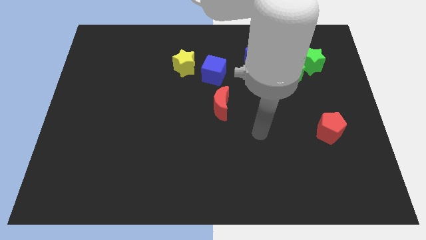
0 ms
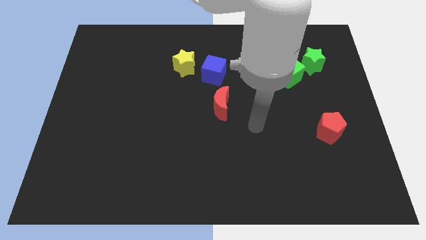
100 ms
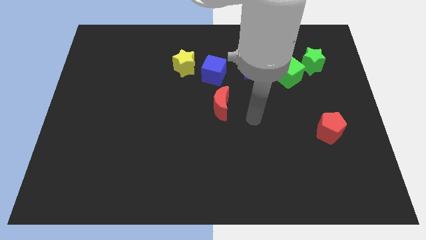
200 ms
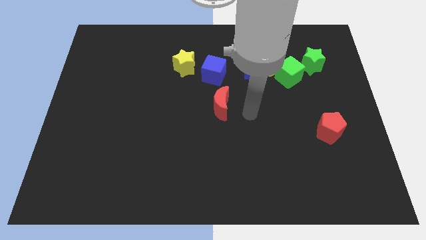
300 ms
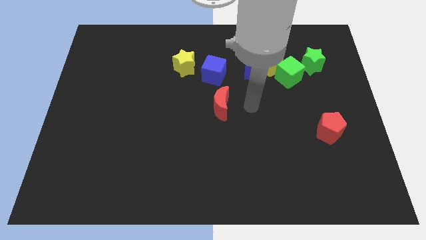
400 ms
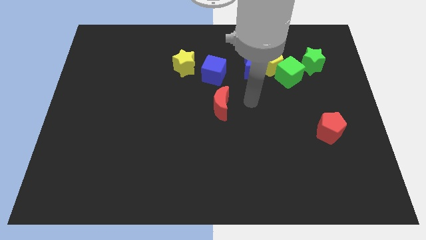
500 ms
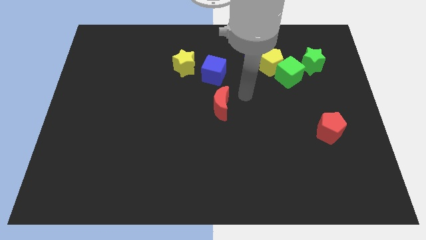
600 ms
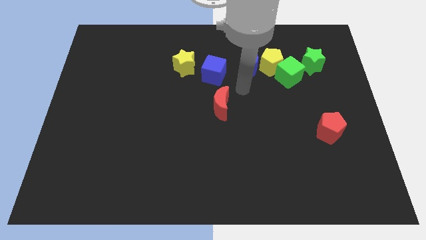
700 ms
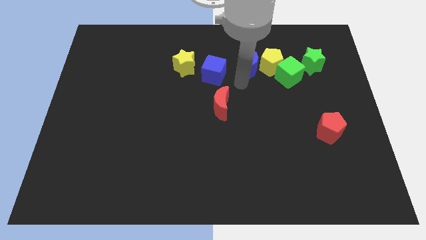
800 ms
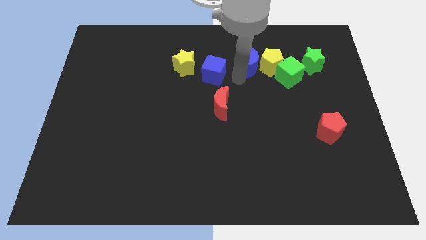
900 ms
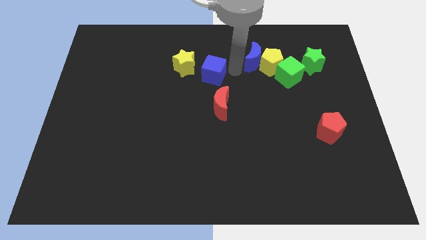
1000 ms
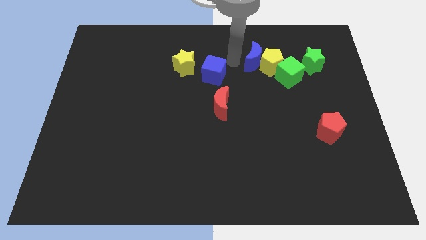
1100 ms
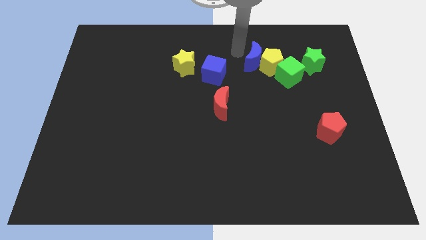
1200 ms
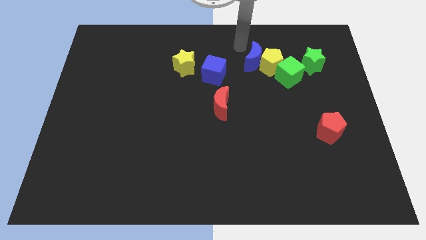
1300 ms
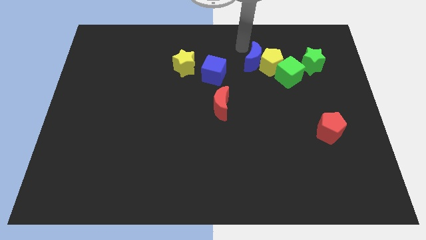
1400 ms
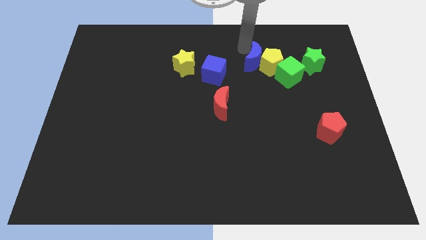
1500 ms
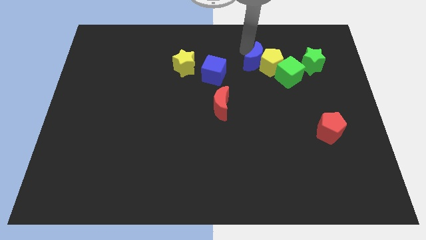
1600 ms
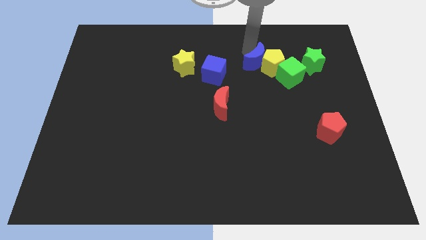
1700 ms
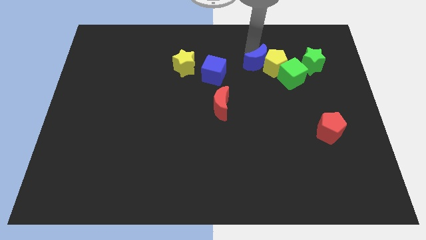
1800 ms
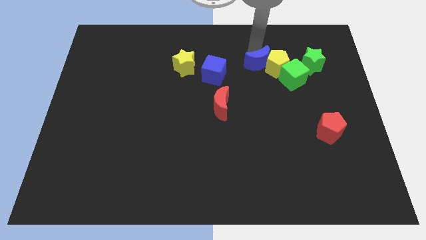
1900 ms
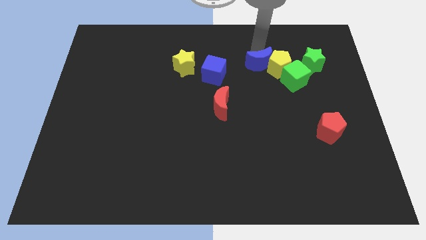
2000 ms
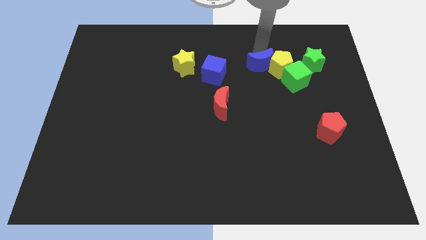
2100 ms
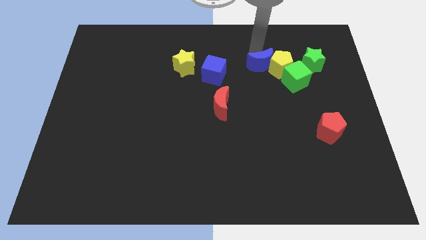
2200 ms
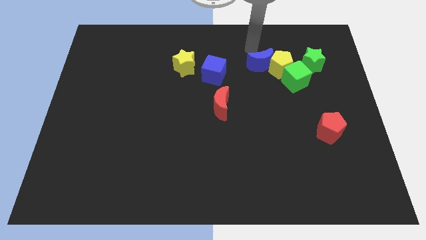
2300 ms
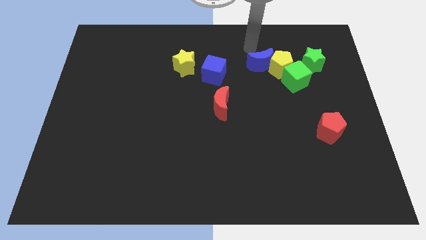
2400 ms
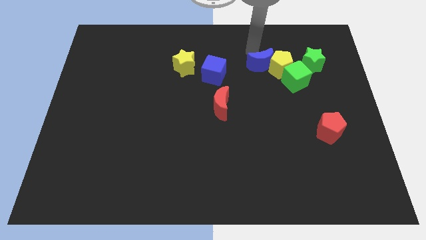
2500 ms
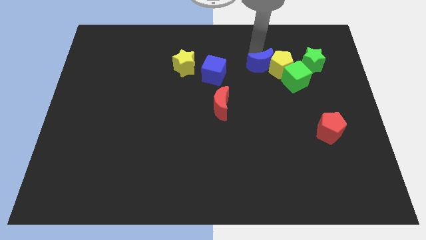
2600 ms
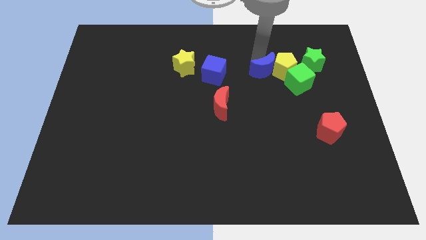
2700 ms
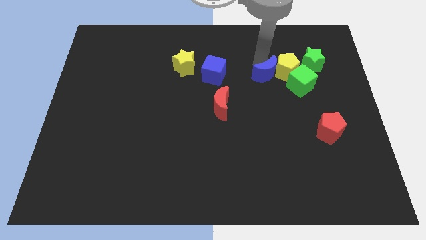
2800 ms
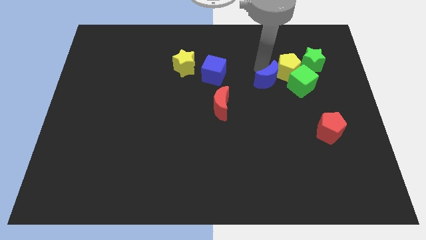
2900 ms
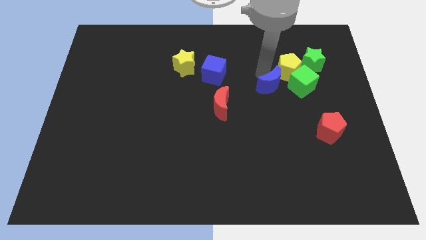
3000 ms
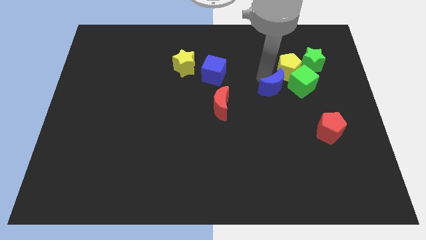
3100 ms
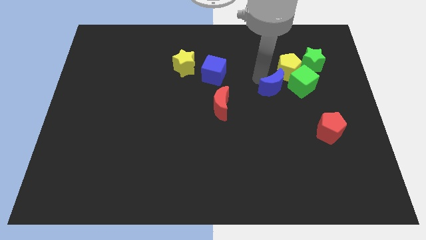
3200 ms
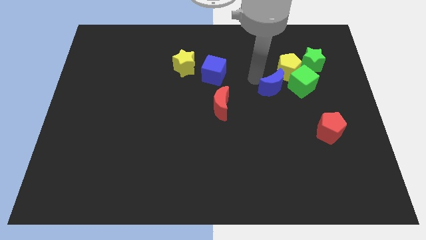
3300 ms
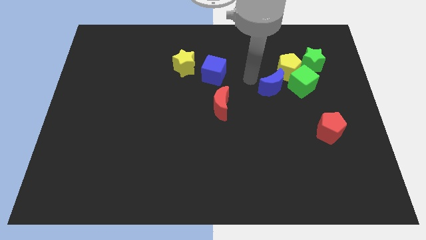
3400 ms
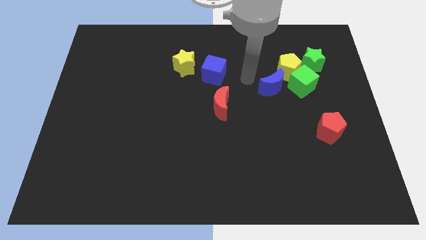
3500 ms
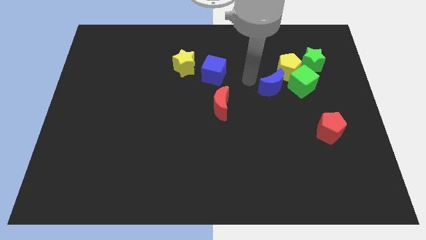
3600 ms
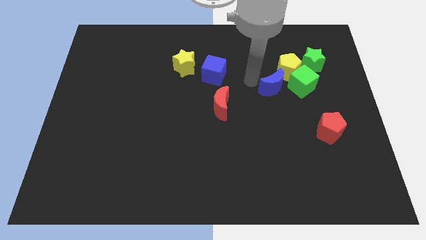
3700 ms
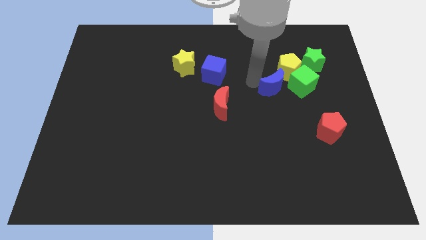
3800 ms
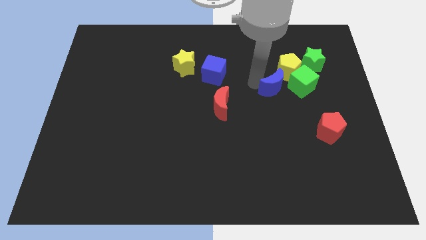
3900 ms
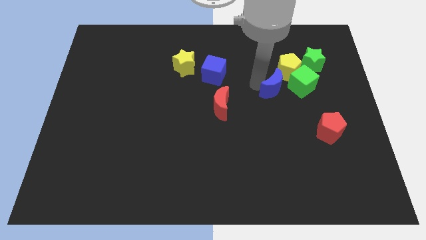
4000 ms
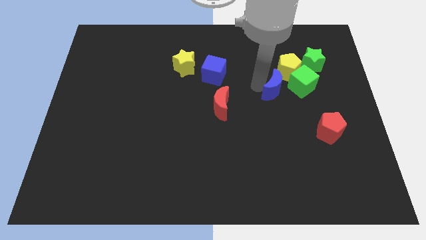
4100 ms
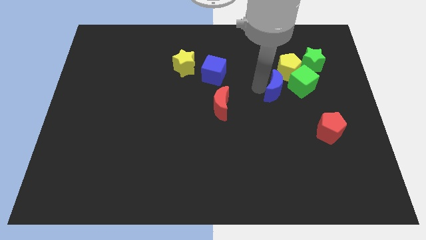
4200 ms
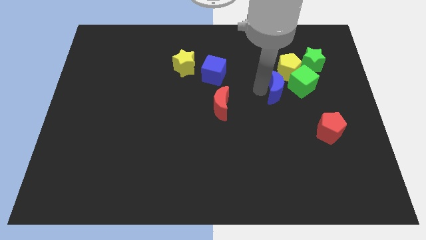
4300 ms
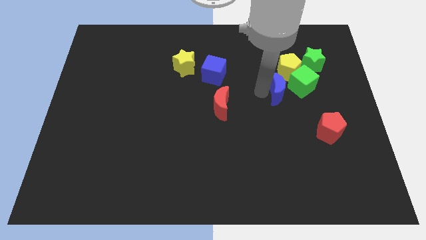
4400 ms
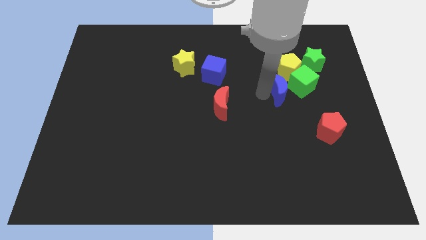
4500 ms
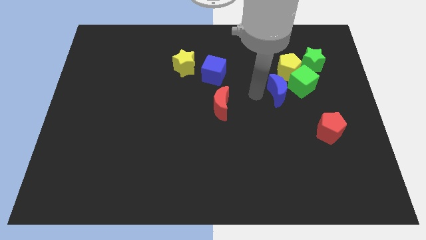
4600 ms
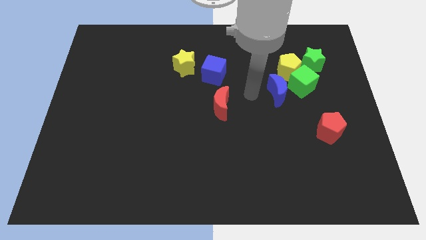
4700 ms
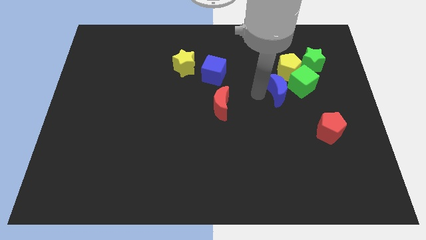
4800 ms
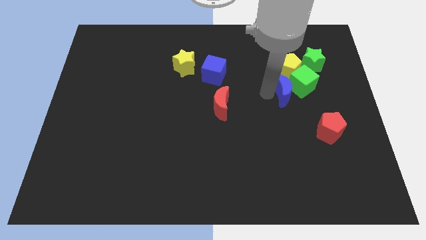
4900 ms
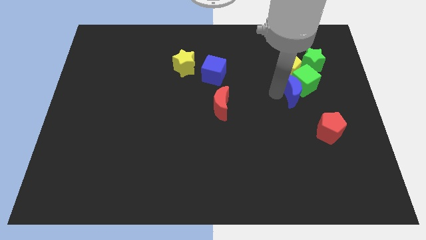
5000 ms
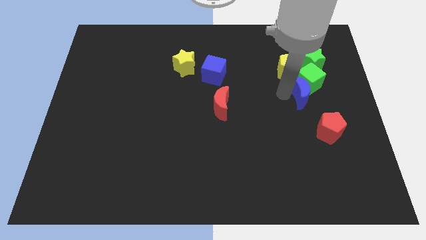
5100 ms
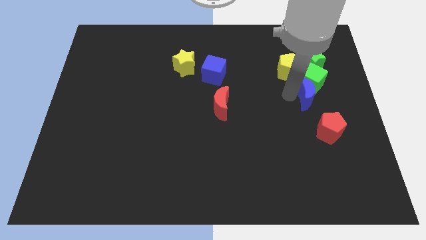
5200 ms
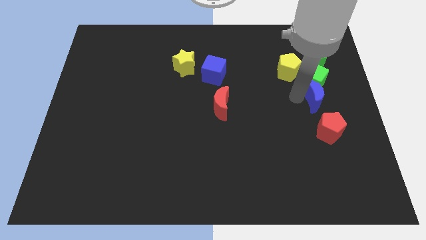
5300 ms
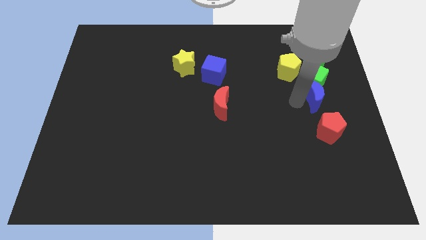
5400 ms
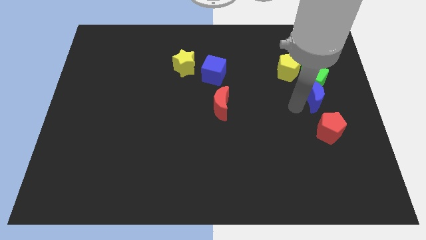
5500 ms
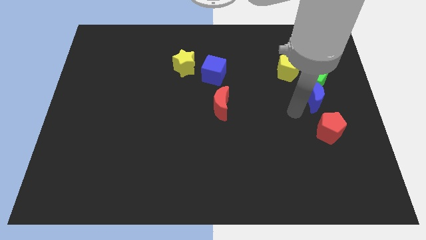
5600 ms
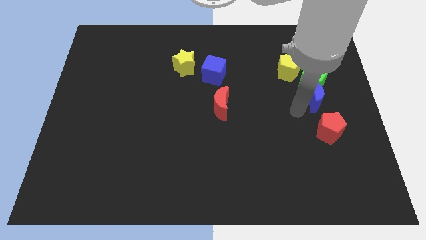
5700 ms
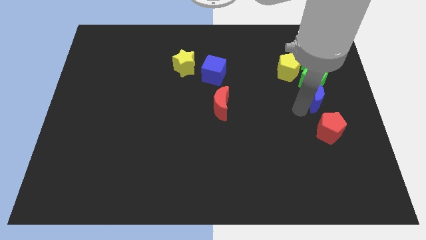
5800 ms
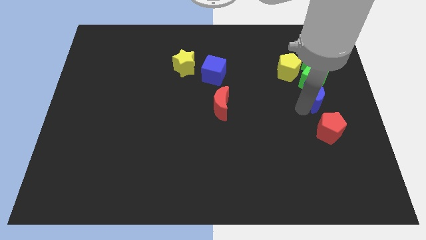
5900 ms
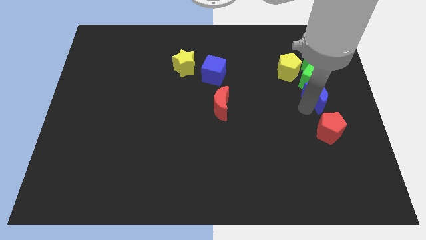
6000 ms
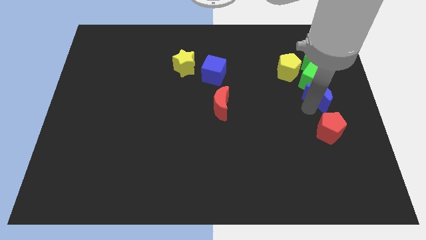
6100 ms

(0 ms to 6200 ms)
put the blue moon to the center right
